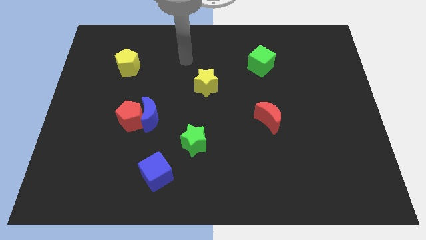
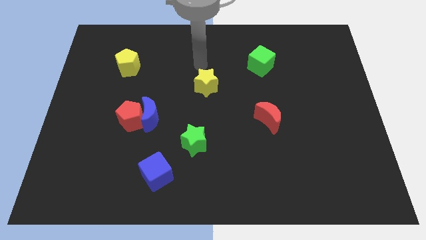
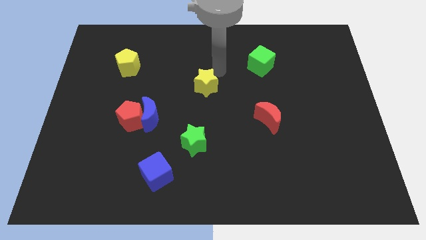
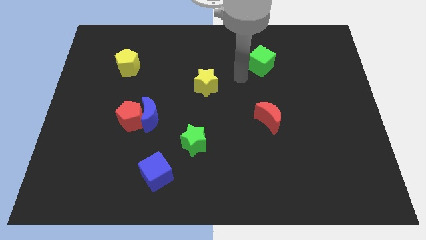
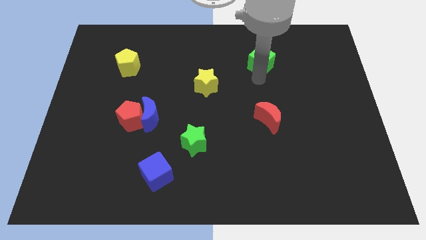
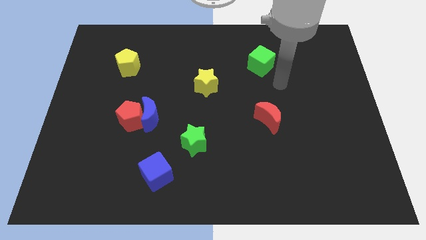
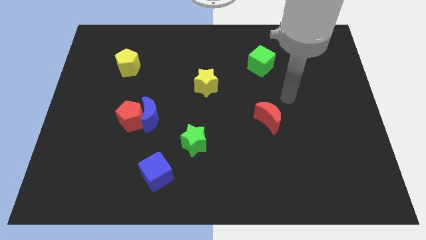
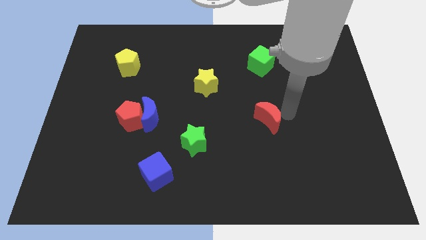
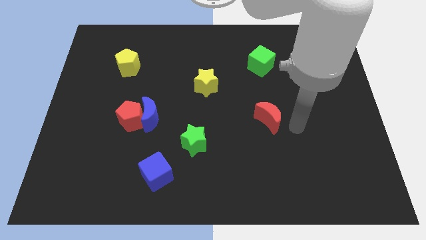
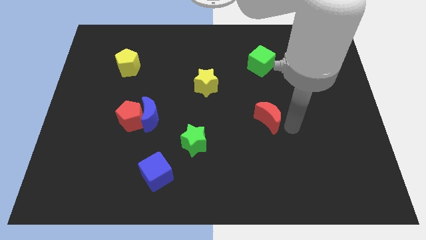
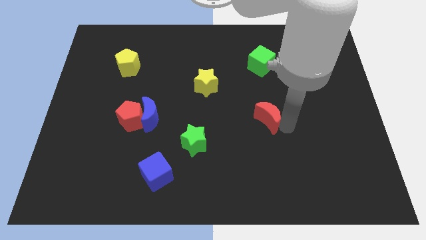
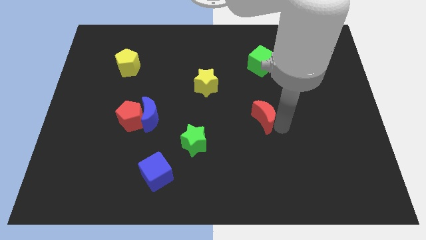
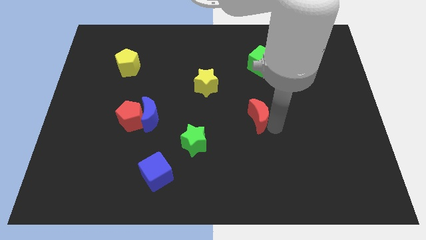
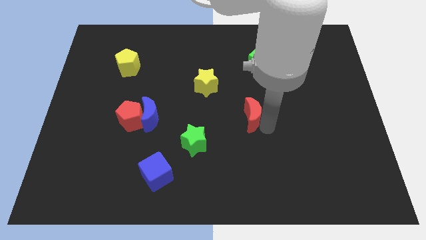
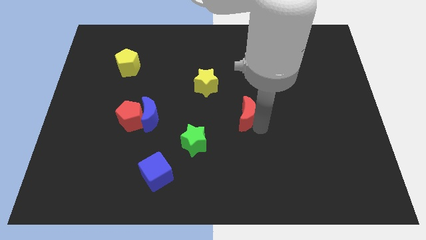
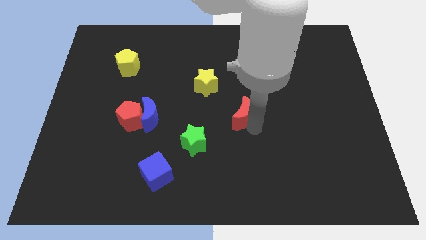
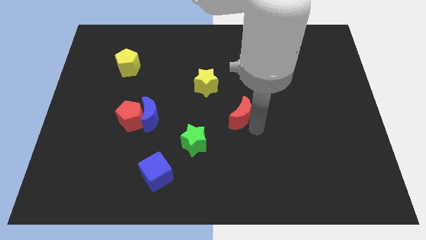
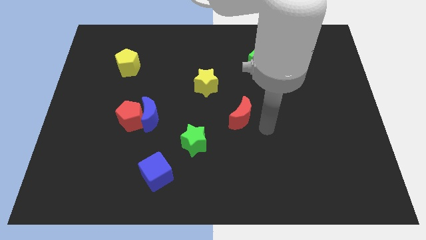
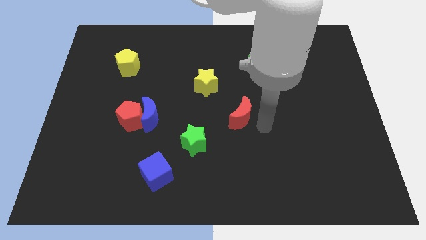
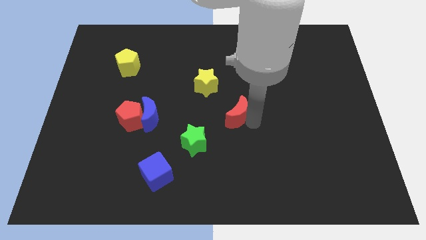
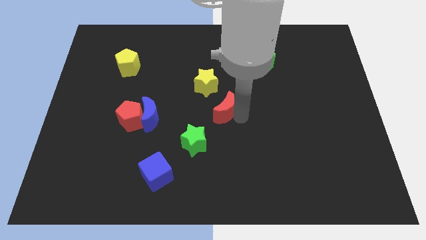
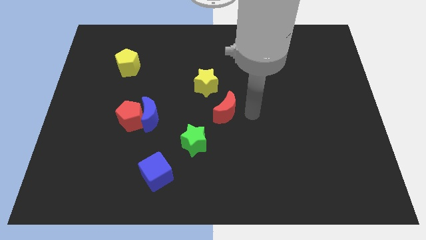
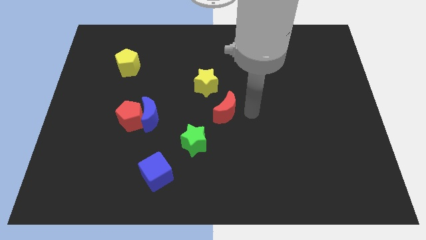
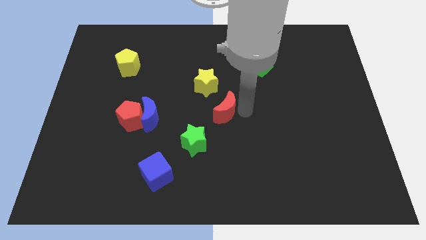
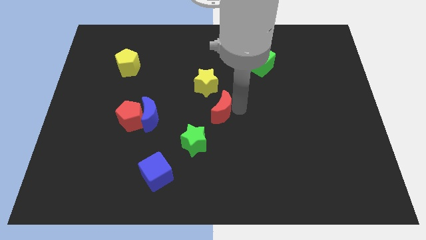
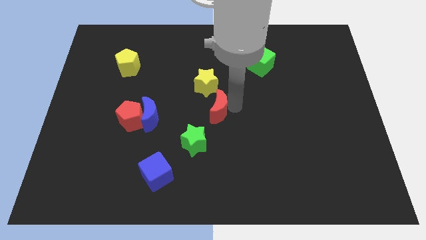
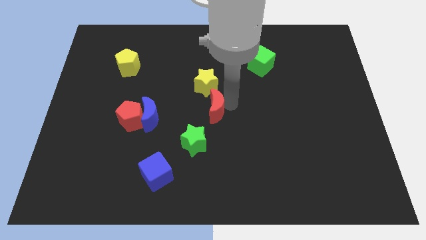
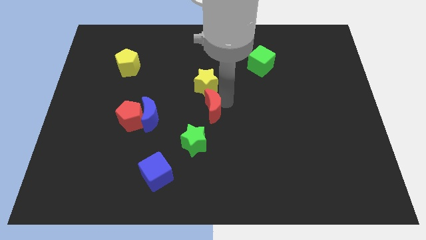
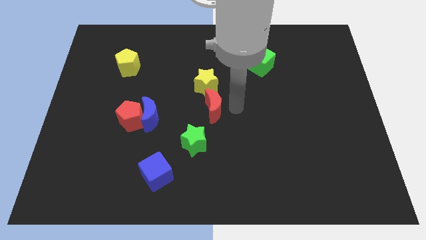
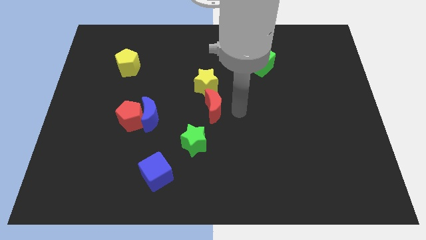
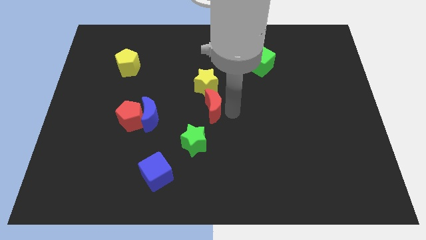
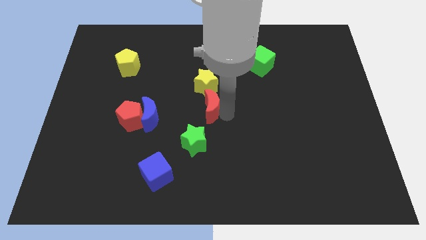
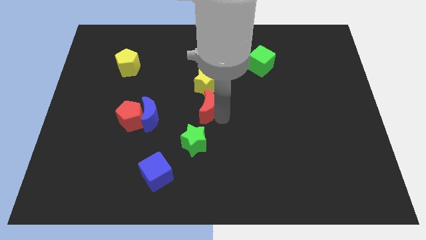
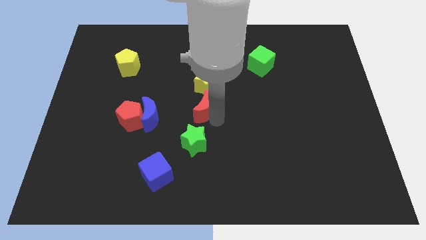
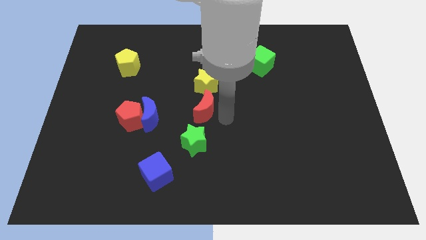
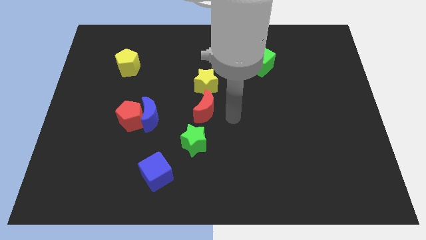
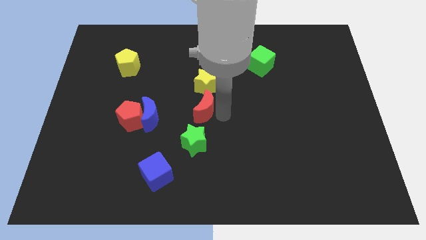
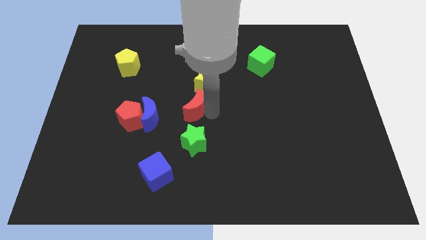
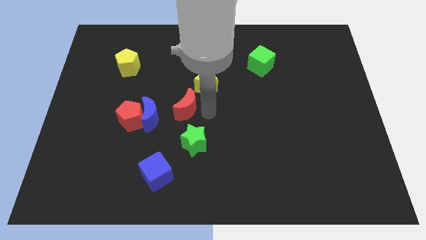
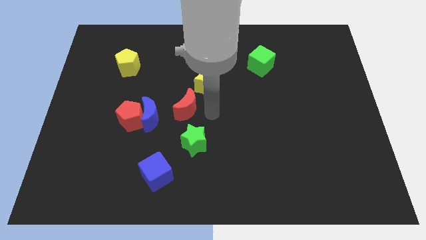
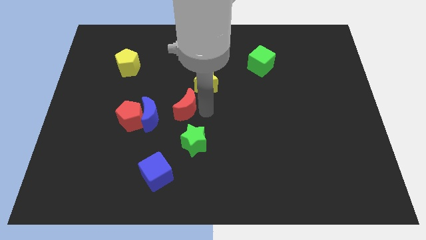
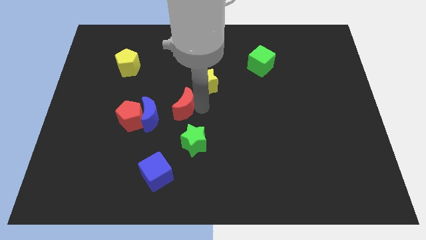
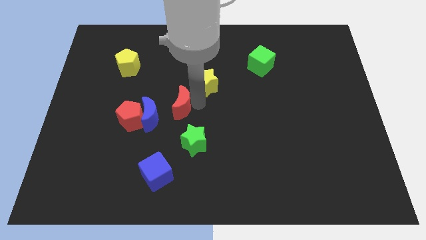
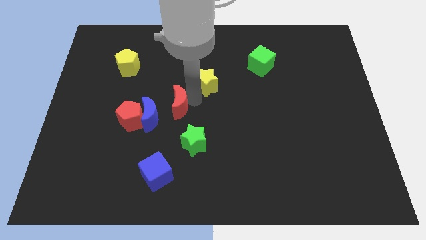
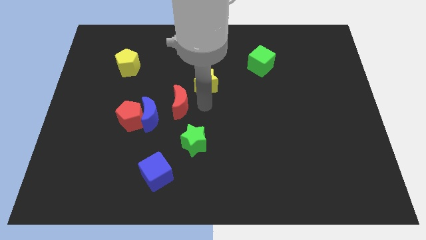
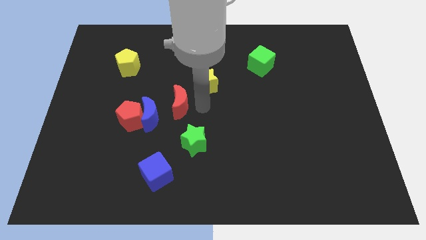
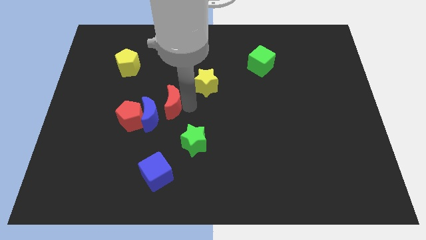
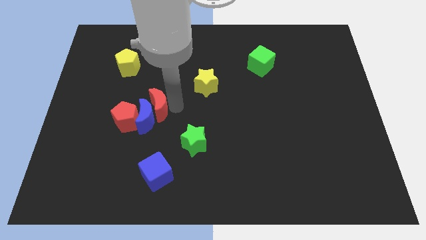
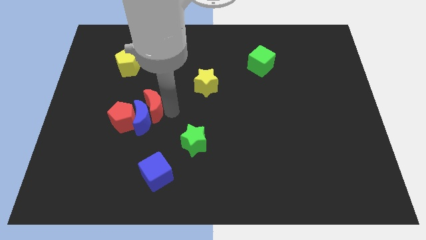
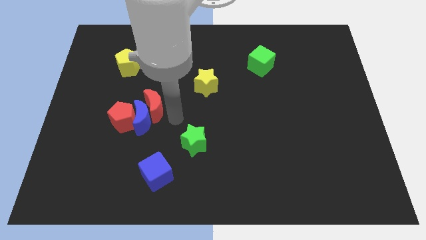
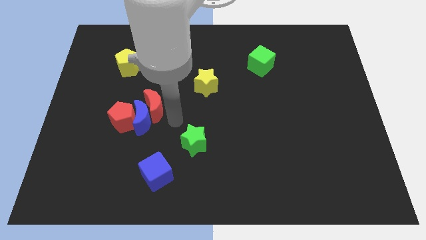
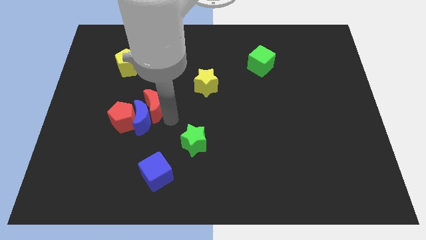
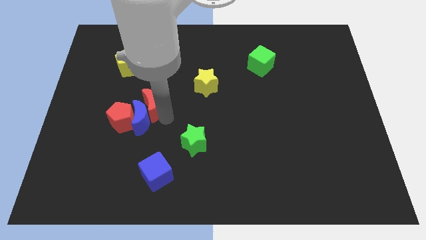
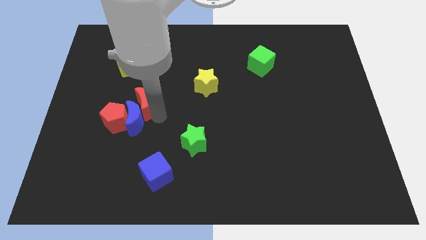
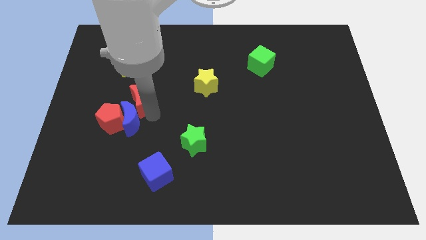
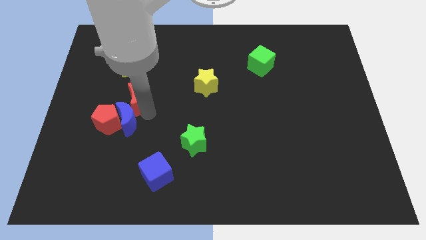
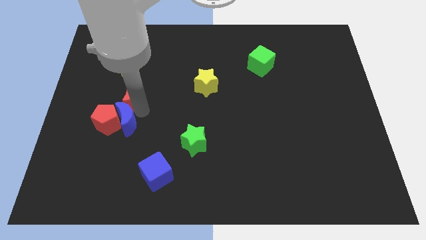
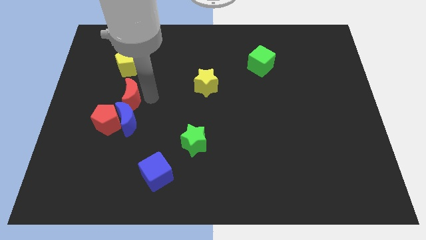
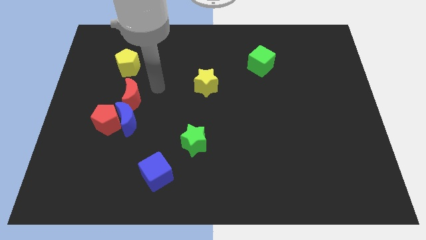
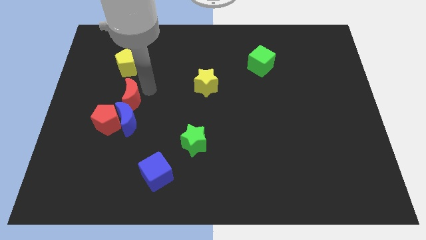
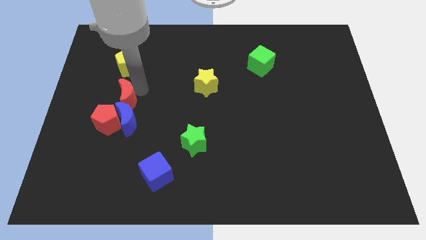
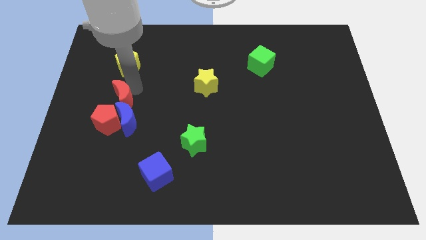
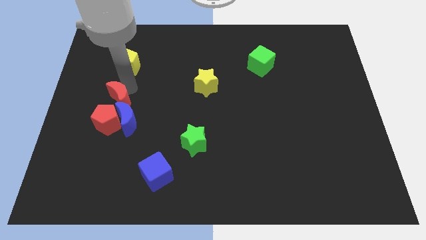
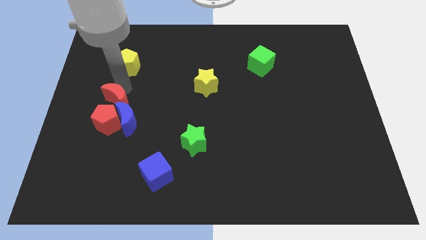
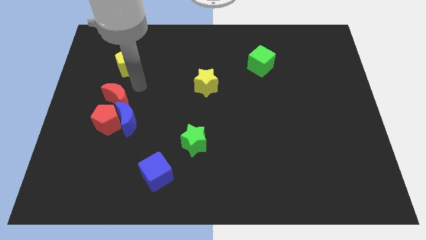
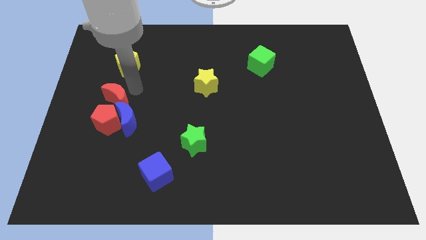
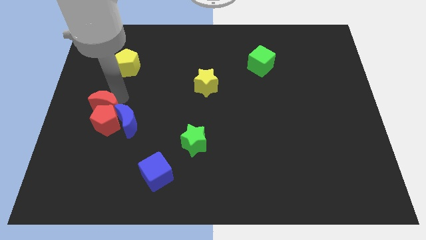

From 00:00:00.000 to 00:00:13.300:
slide the red moon to the left side of the blue moon
